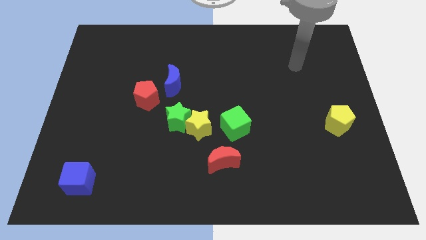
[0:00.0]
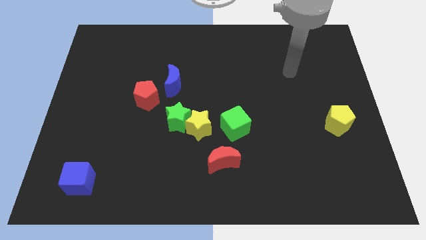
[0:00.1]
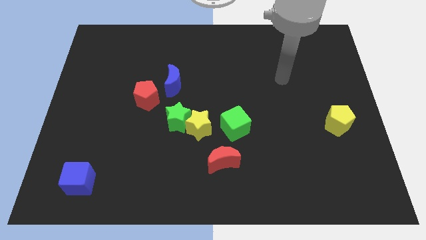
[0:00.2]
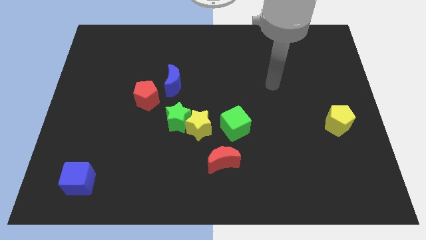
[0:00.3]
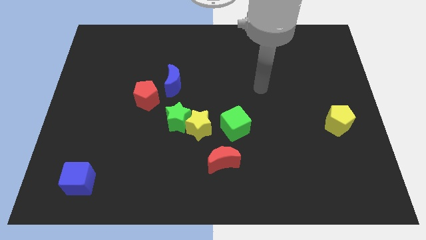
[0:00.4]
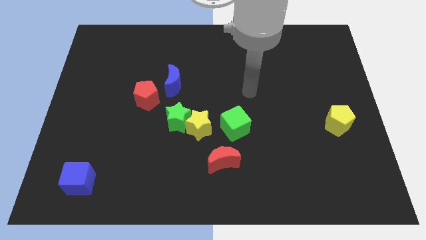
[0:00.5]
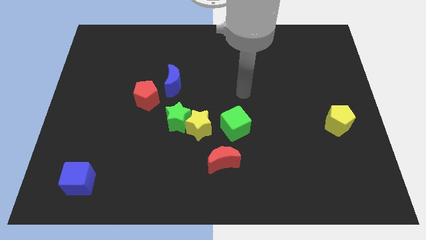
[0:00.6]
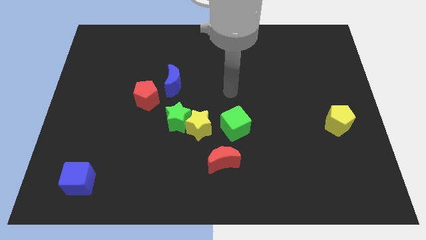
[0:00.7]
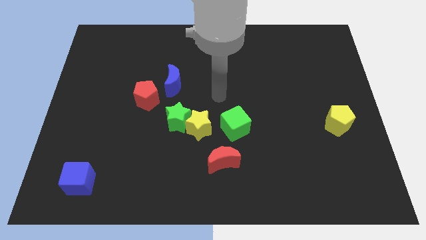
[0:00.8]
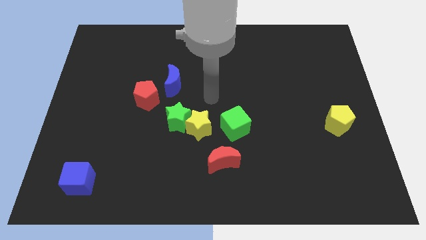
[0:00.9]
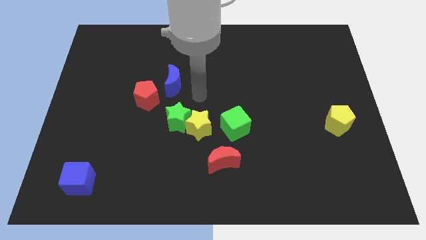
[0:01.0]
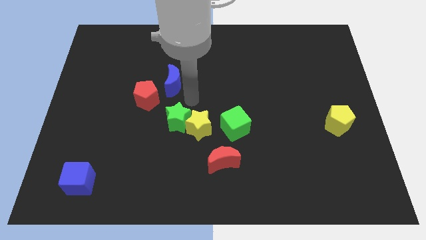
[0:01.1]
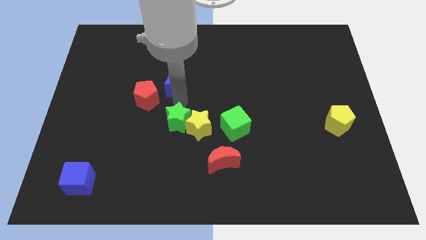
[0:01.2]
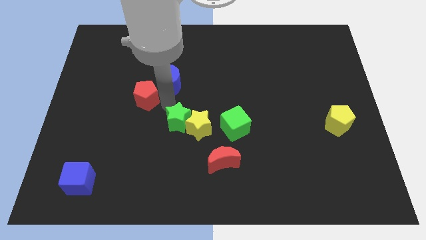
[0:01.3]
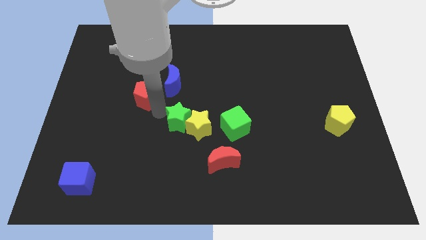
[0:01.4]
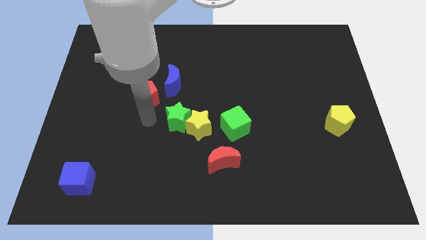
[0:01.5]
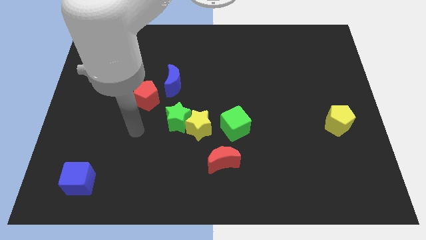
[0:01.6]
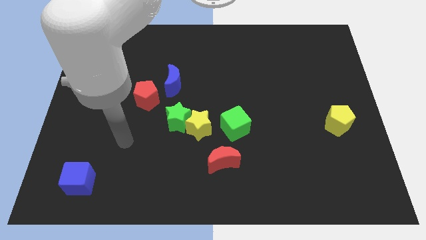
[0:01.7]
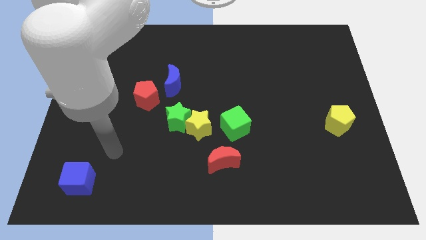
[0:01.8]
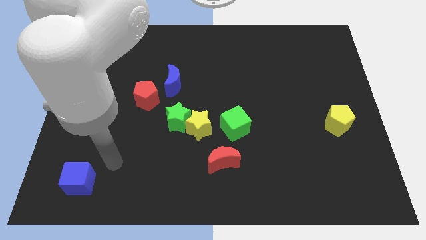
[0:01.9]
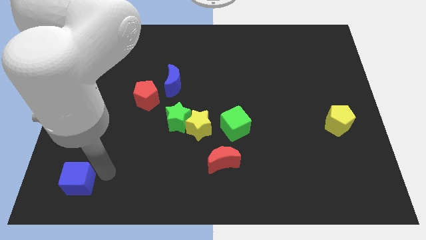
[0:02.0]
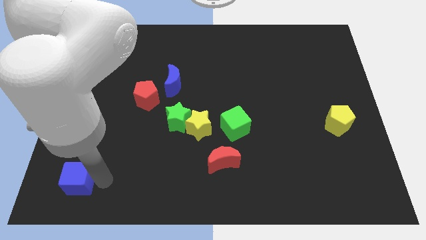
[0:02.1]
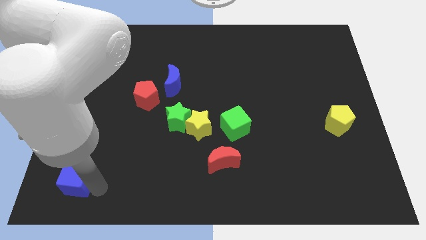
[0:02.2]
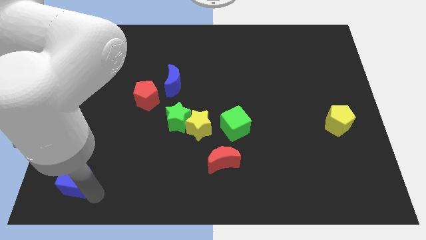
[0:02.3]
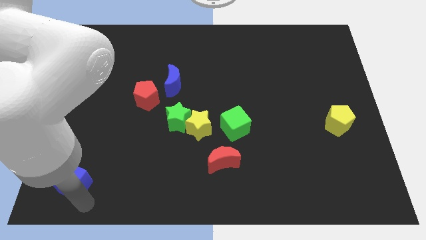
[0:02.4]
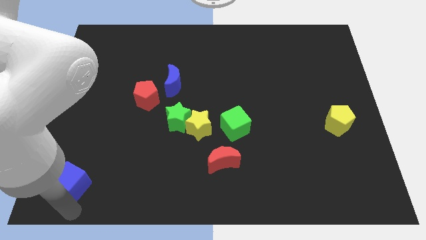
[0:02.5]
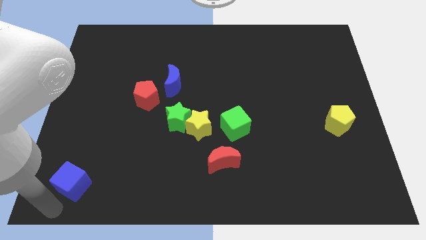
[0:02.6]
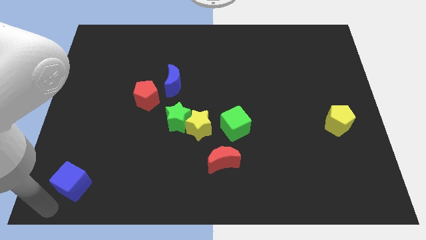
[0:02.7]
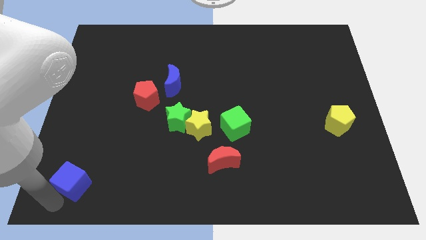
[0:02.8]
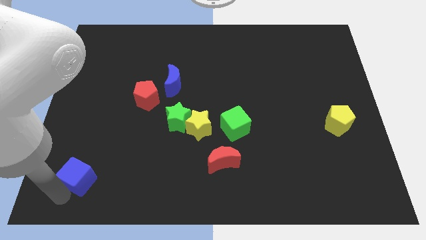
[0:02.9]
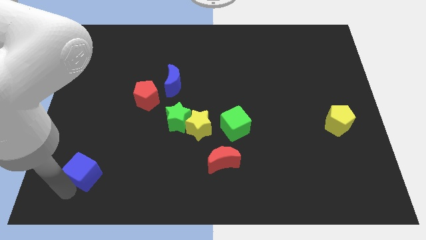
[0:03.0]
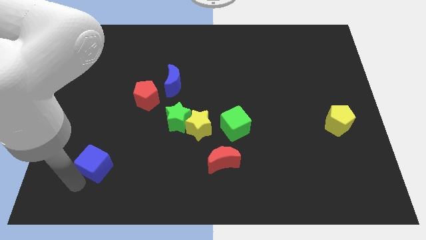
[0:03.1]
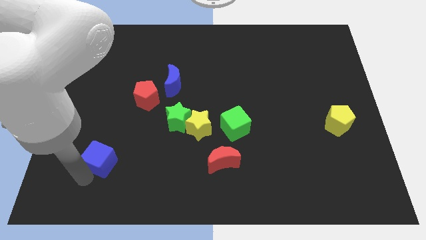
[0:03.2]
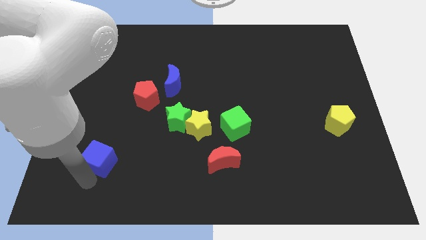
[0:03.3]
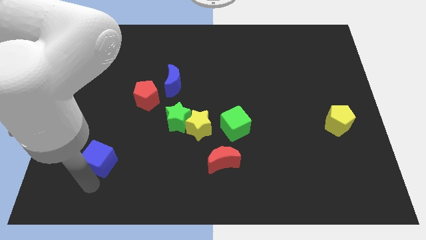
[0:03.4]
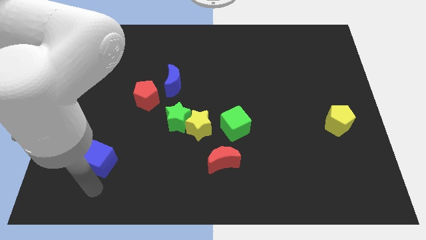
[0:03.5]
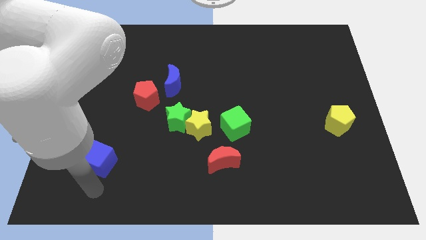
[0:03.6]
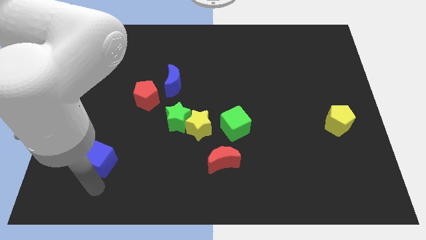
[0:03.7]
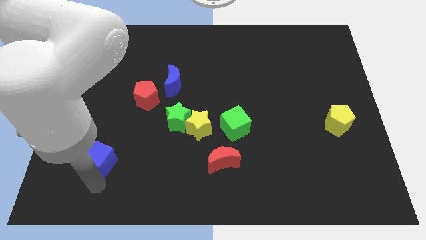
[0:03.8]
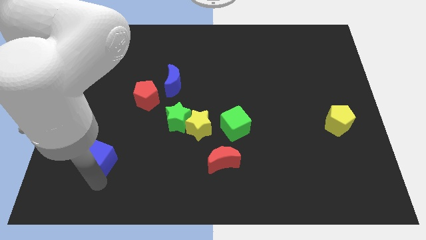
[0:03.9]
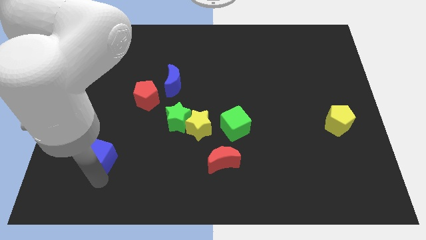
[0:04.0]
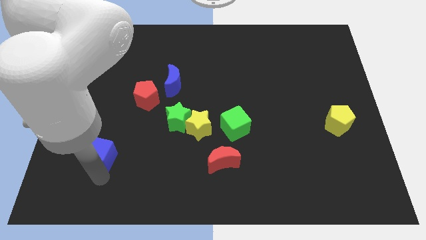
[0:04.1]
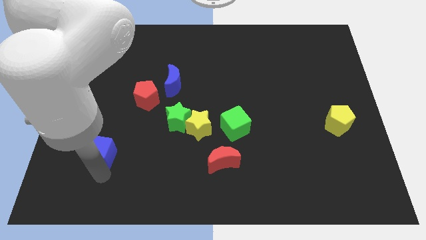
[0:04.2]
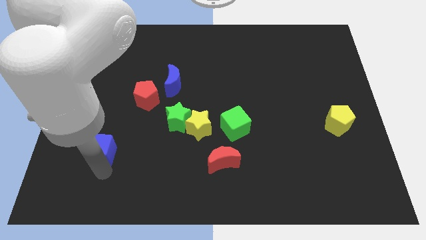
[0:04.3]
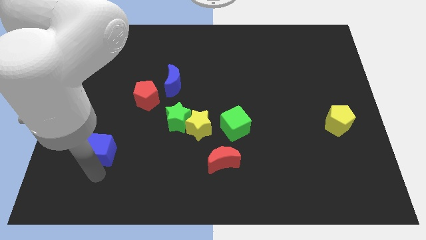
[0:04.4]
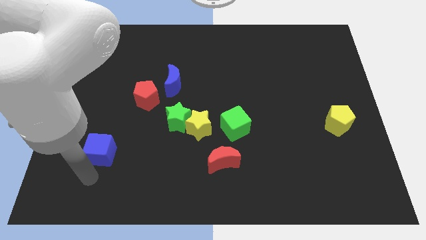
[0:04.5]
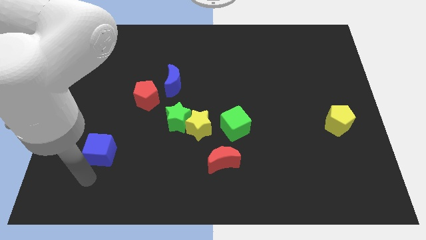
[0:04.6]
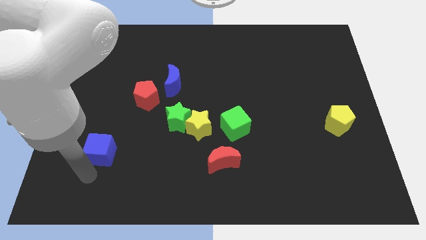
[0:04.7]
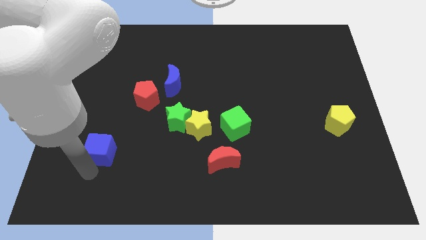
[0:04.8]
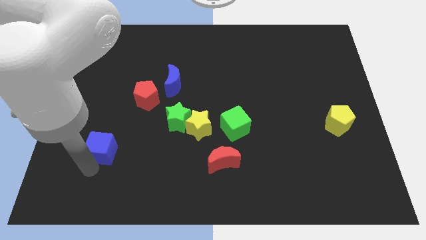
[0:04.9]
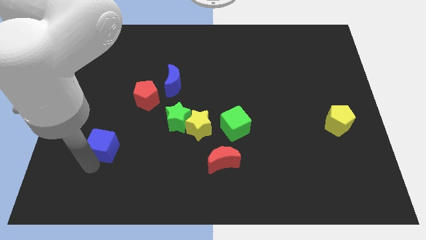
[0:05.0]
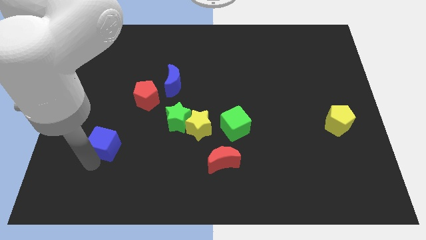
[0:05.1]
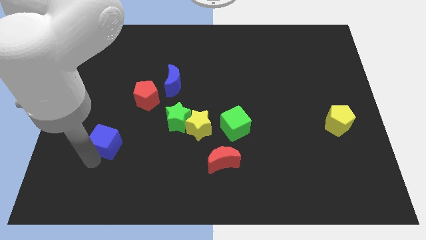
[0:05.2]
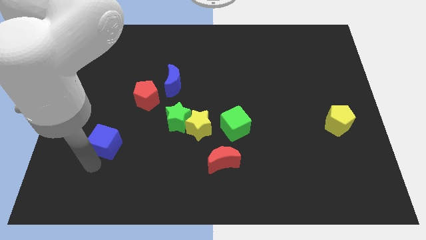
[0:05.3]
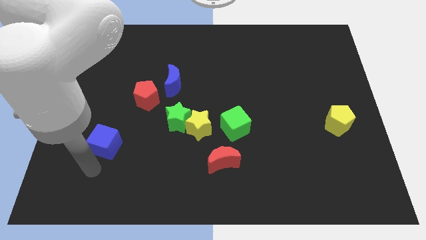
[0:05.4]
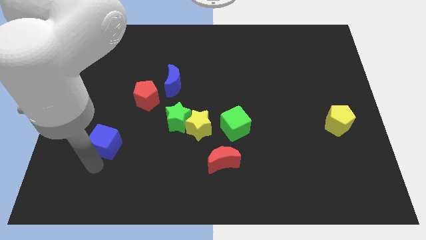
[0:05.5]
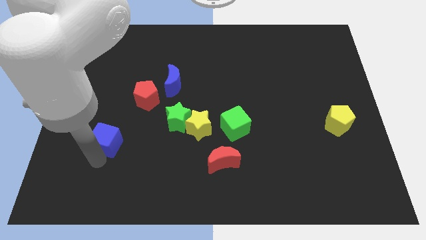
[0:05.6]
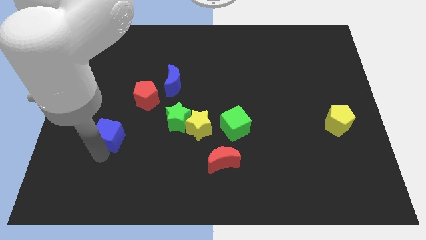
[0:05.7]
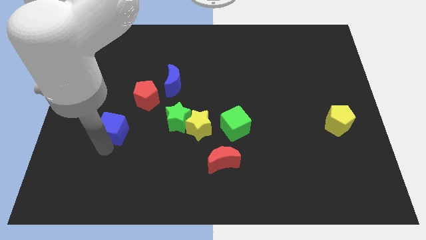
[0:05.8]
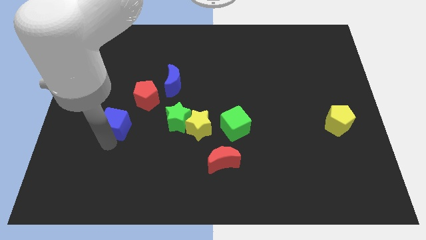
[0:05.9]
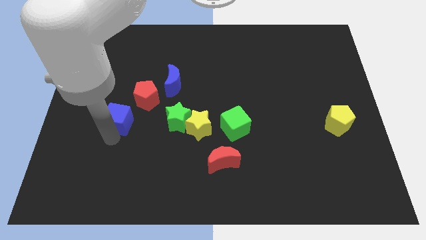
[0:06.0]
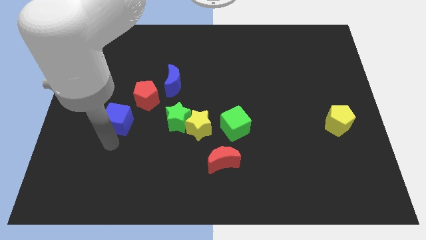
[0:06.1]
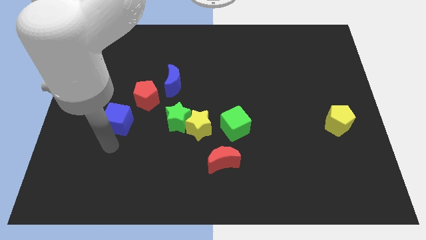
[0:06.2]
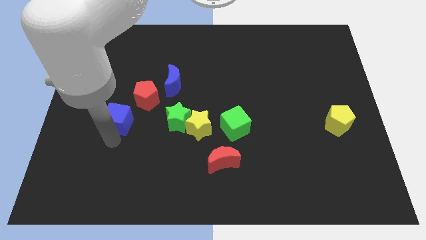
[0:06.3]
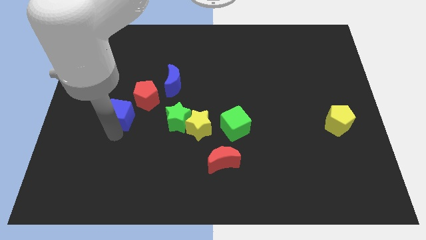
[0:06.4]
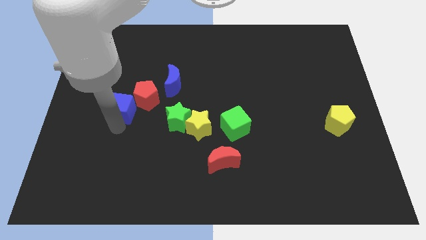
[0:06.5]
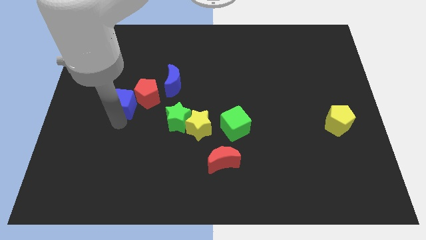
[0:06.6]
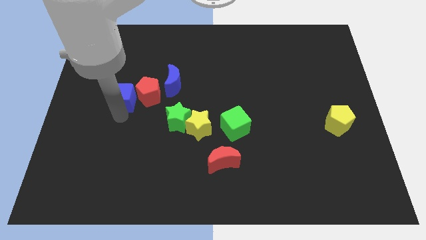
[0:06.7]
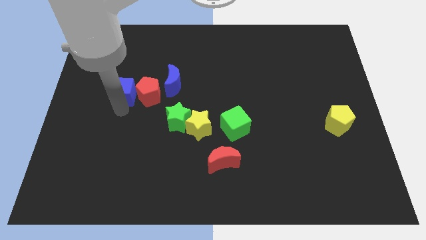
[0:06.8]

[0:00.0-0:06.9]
move the blue cube to the left side of the blue moon
